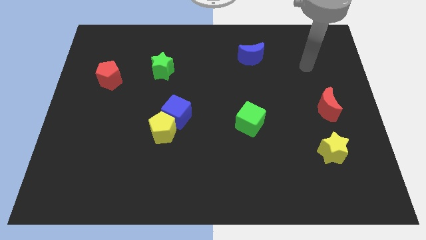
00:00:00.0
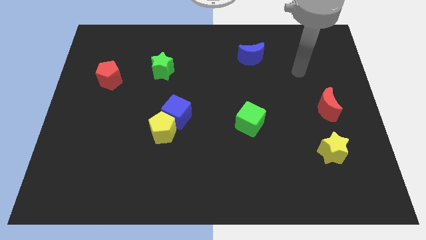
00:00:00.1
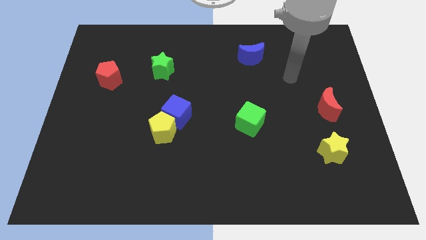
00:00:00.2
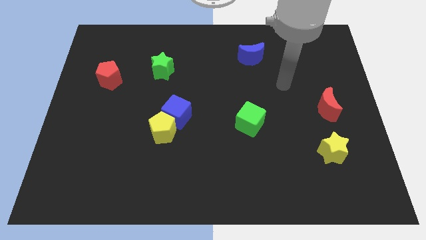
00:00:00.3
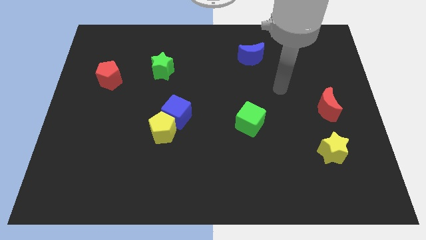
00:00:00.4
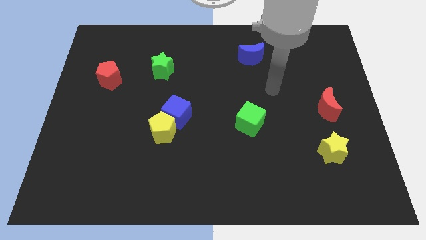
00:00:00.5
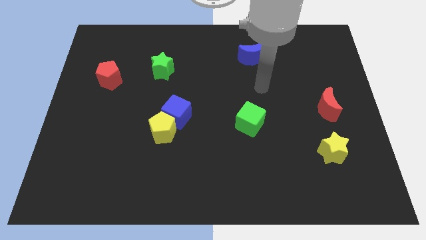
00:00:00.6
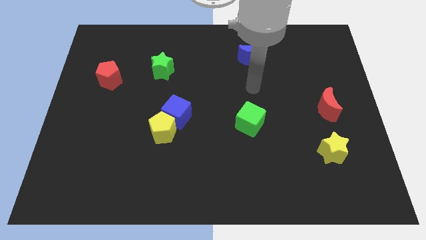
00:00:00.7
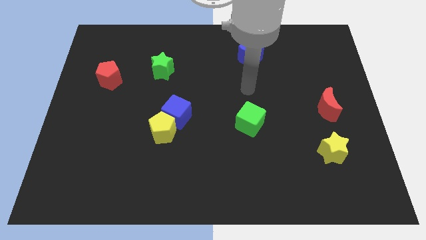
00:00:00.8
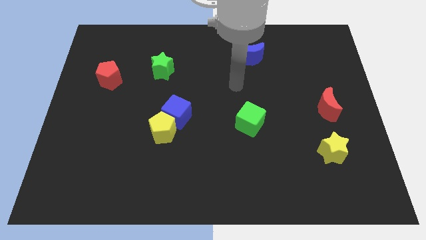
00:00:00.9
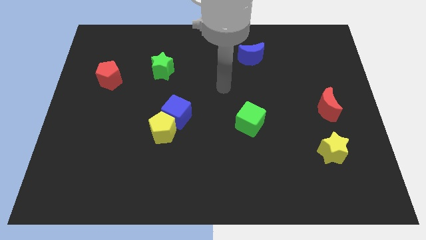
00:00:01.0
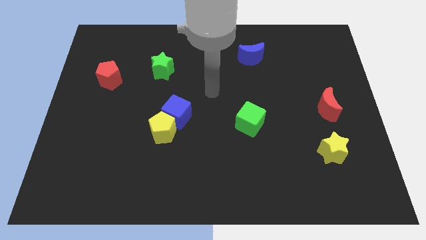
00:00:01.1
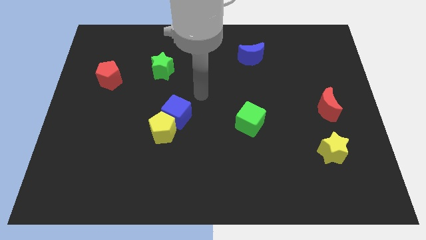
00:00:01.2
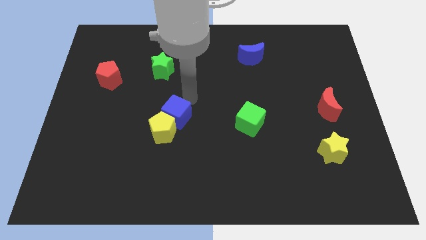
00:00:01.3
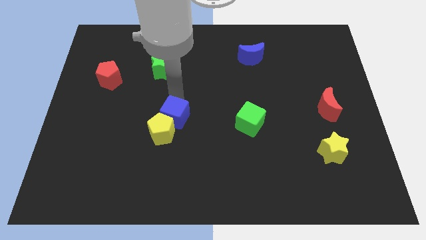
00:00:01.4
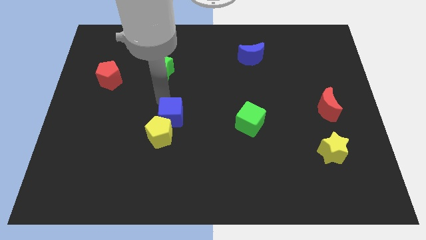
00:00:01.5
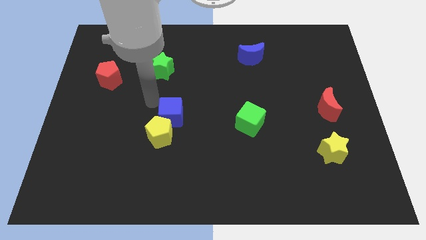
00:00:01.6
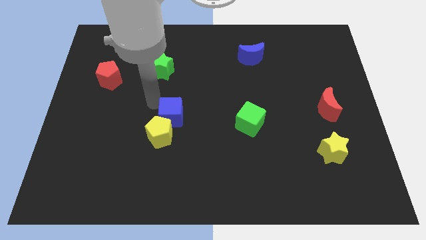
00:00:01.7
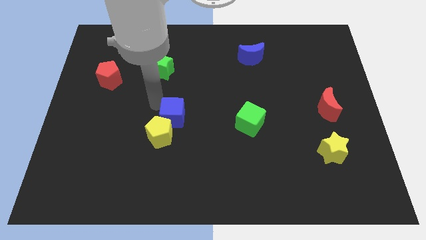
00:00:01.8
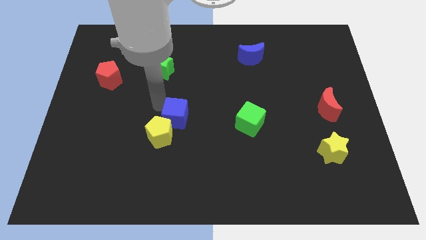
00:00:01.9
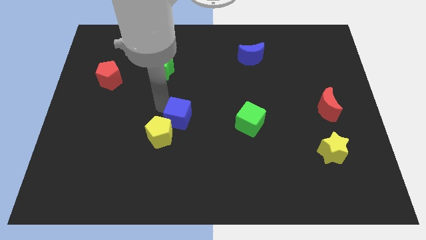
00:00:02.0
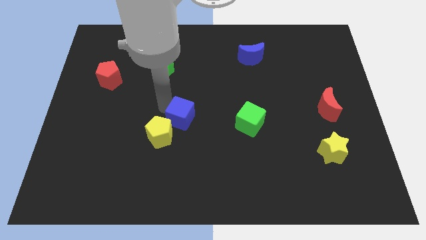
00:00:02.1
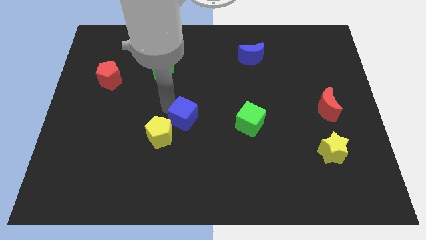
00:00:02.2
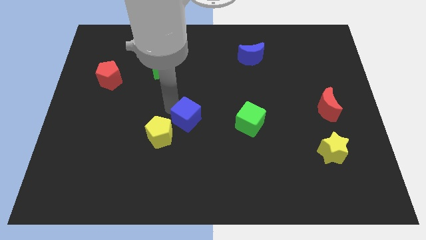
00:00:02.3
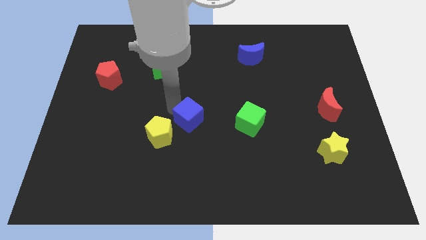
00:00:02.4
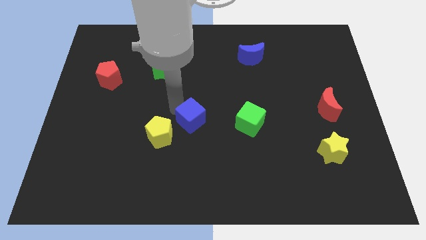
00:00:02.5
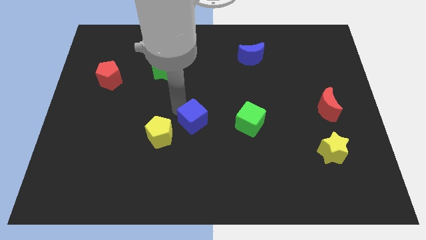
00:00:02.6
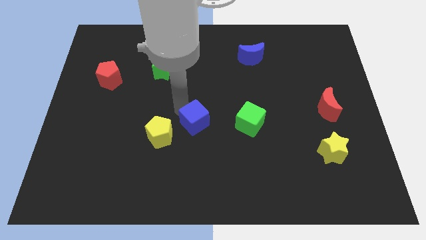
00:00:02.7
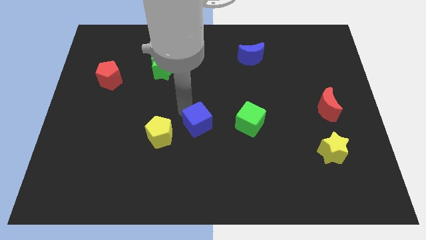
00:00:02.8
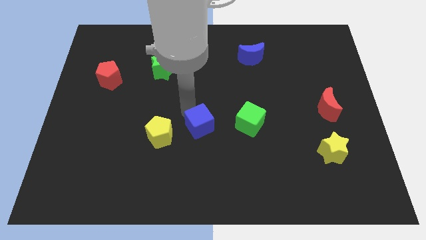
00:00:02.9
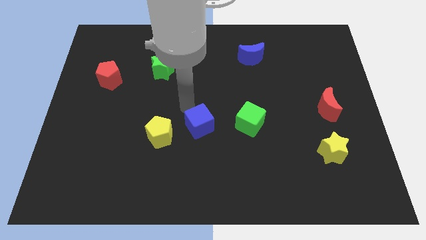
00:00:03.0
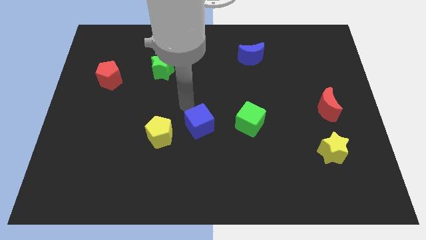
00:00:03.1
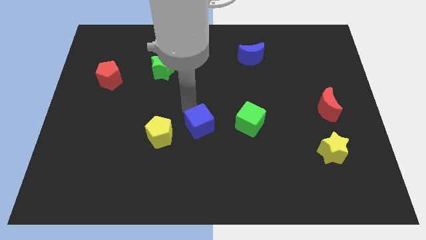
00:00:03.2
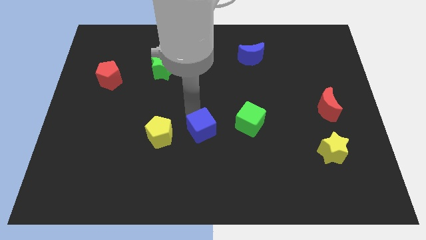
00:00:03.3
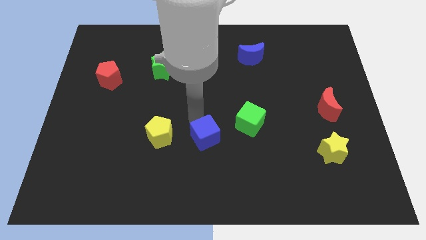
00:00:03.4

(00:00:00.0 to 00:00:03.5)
push the blue cube slightly diagonally down and to the right

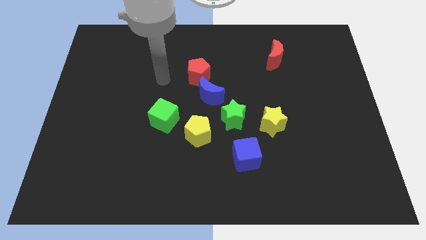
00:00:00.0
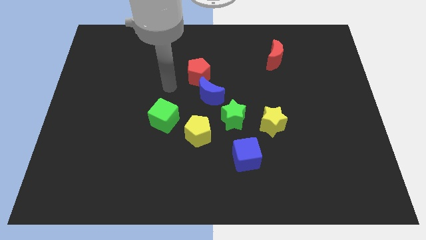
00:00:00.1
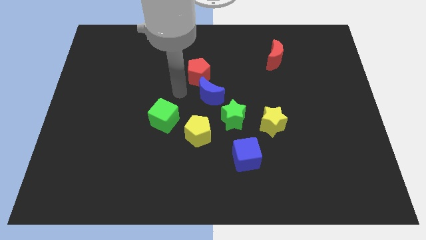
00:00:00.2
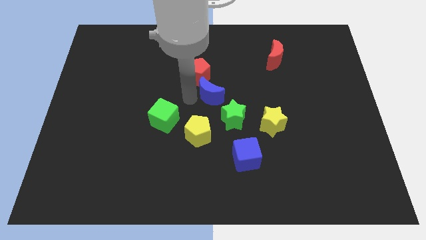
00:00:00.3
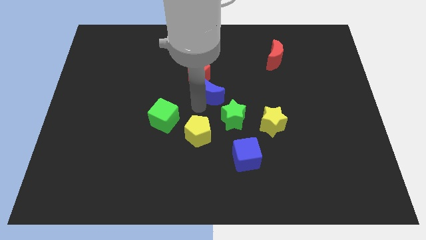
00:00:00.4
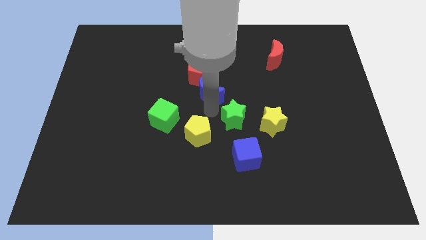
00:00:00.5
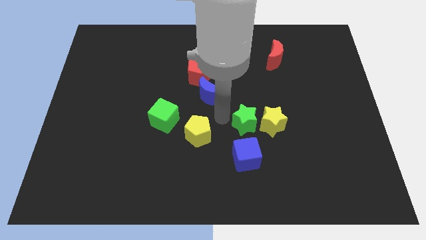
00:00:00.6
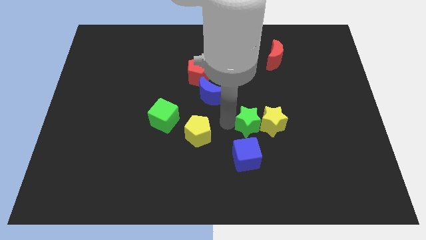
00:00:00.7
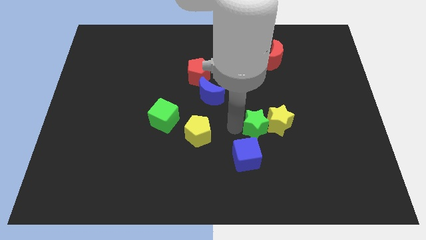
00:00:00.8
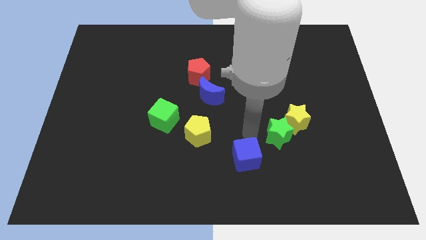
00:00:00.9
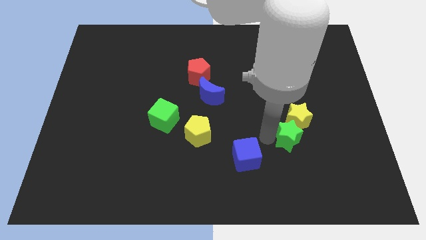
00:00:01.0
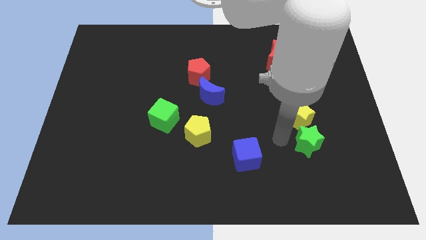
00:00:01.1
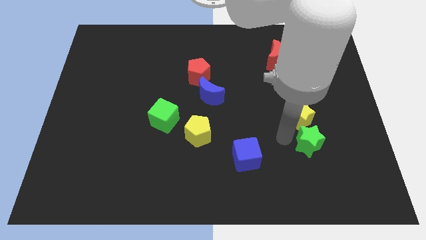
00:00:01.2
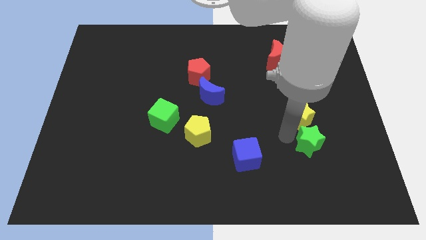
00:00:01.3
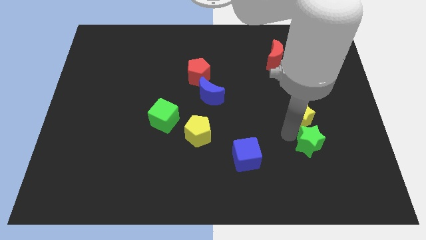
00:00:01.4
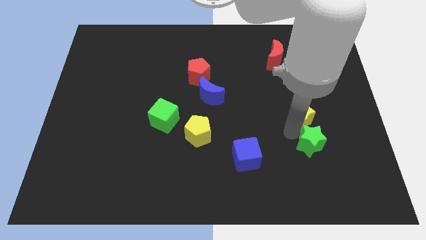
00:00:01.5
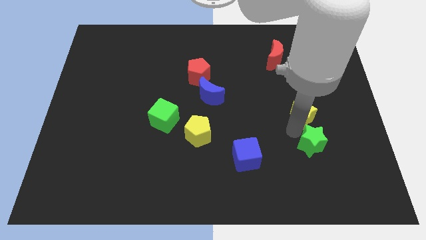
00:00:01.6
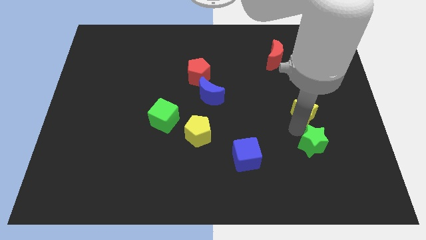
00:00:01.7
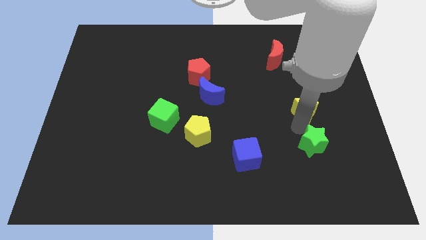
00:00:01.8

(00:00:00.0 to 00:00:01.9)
push the yellow star upwards and then to the right slightly

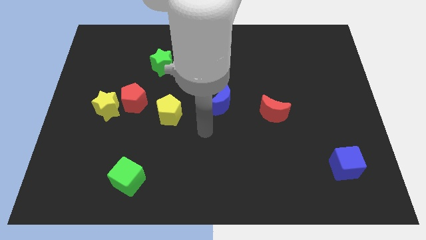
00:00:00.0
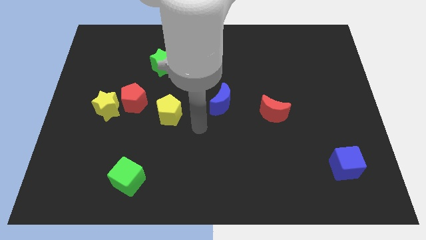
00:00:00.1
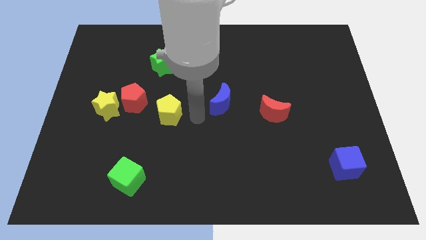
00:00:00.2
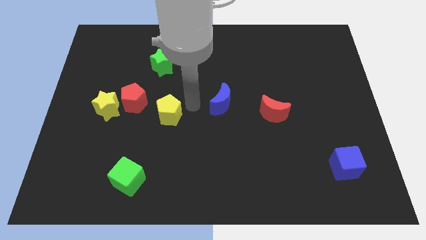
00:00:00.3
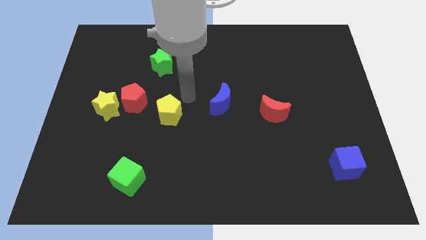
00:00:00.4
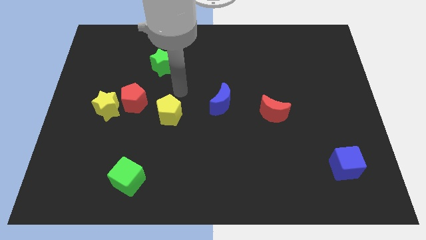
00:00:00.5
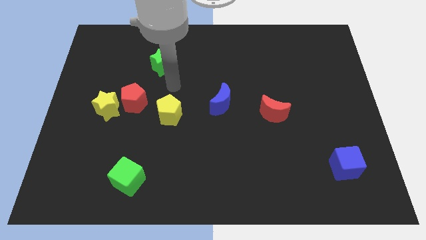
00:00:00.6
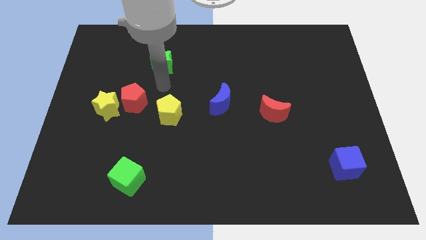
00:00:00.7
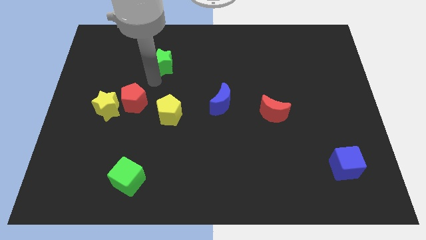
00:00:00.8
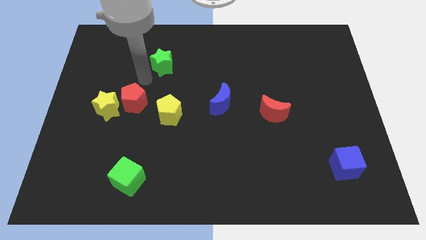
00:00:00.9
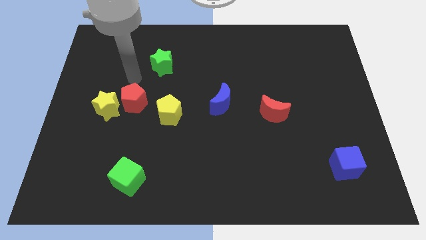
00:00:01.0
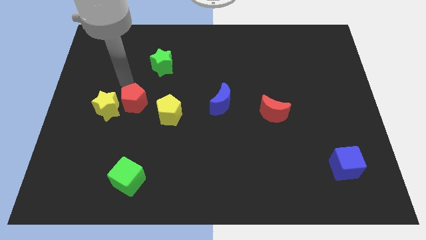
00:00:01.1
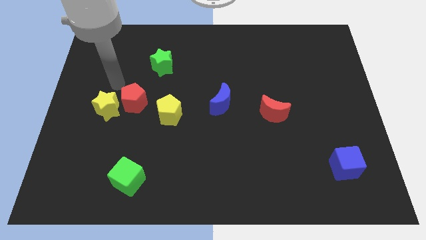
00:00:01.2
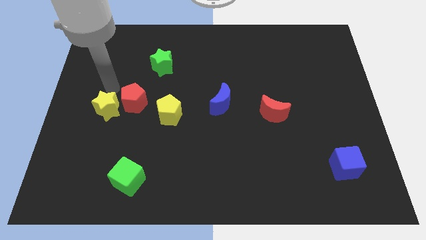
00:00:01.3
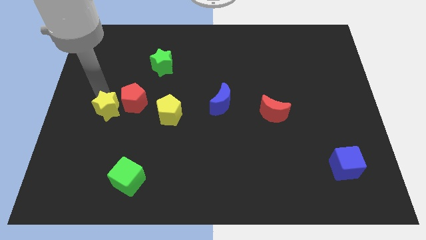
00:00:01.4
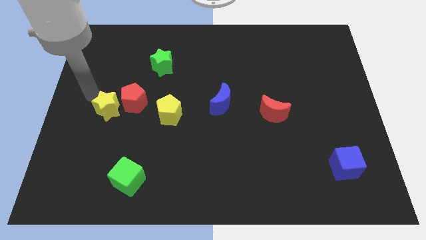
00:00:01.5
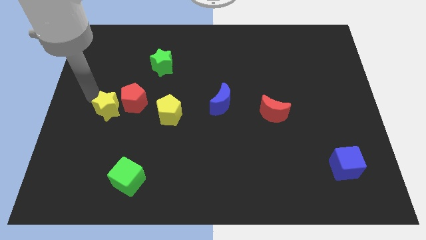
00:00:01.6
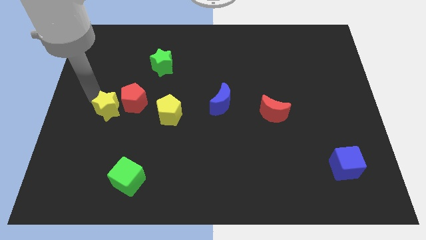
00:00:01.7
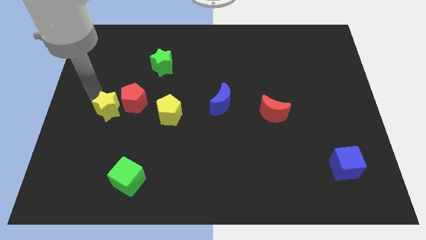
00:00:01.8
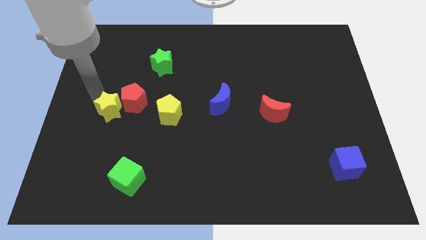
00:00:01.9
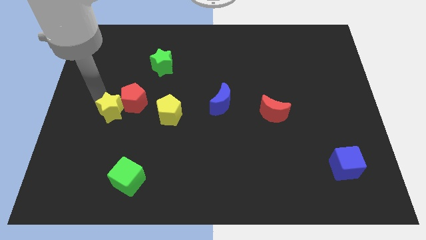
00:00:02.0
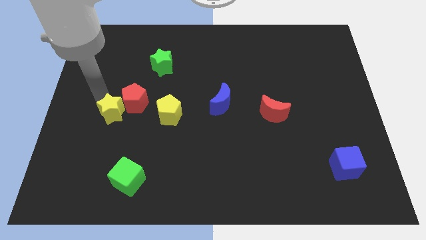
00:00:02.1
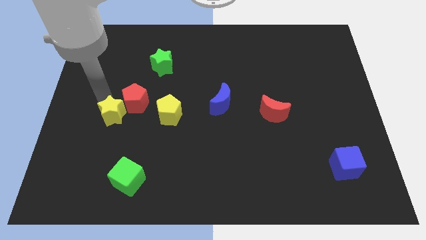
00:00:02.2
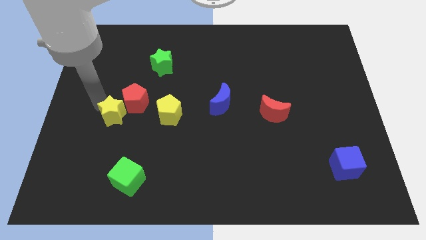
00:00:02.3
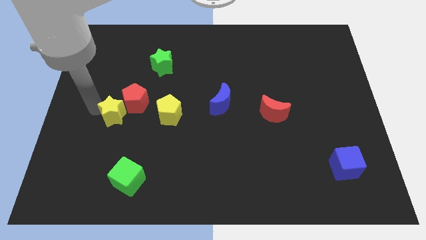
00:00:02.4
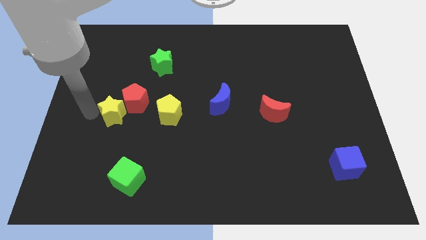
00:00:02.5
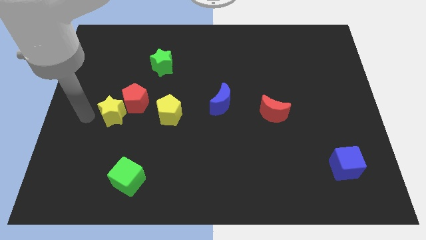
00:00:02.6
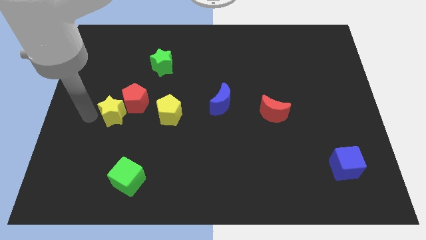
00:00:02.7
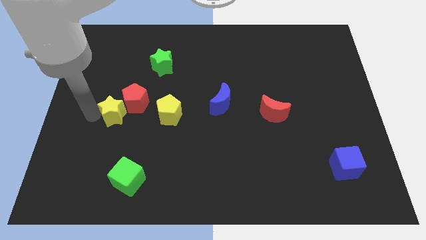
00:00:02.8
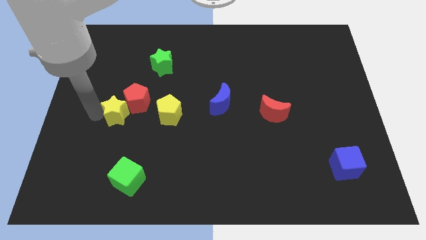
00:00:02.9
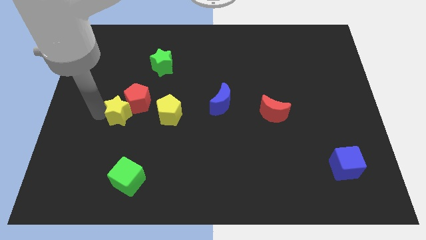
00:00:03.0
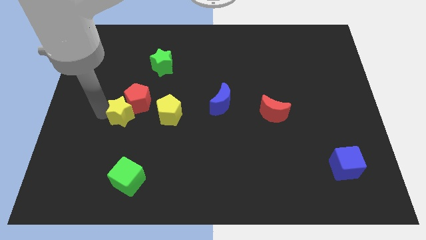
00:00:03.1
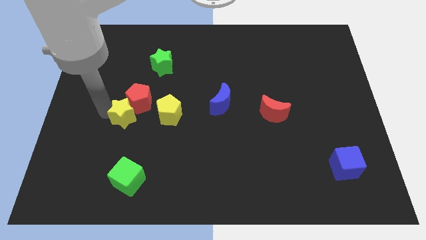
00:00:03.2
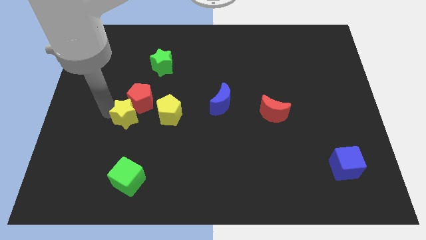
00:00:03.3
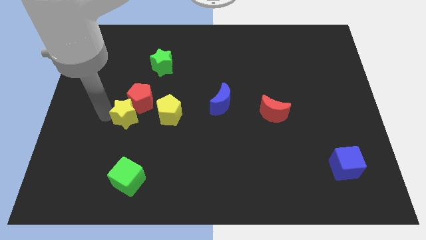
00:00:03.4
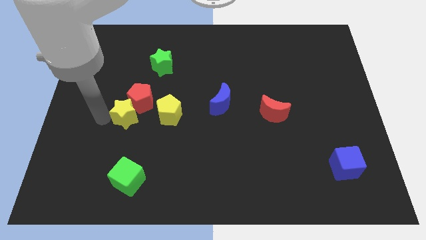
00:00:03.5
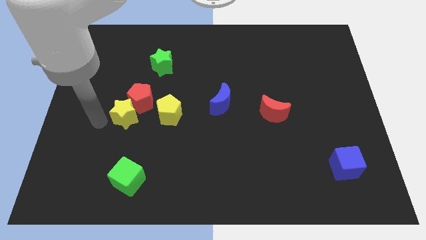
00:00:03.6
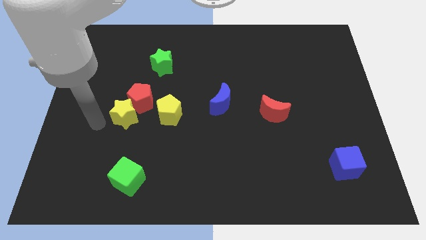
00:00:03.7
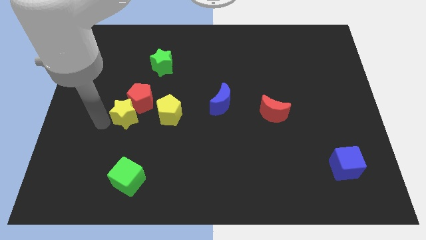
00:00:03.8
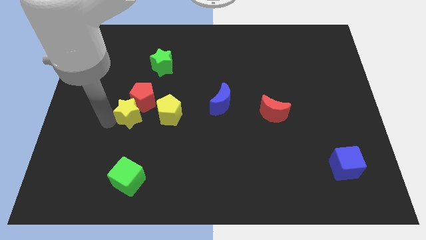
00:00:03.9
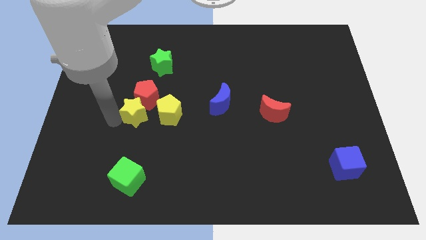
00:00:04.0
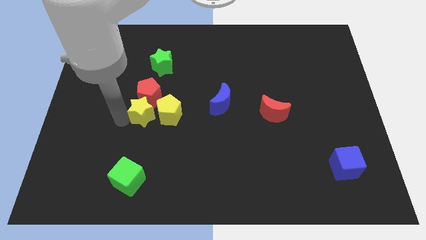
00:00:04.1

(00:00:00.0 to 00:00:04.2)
slightly push the yellow star right
